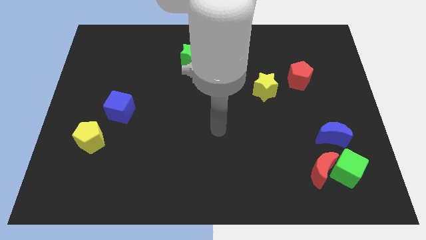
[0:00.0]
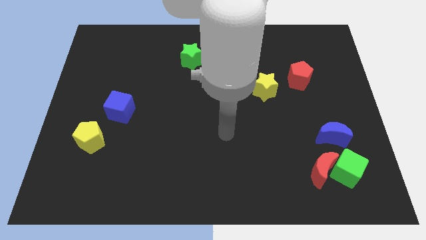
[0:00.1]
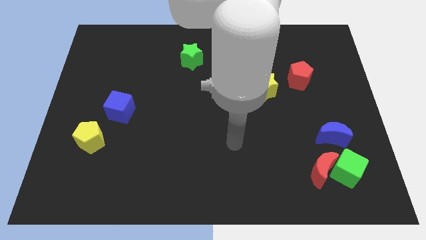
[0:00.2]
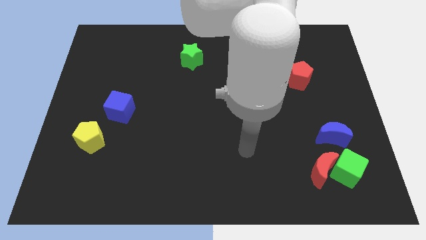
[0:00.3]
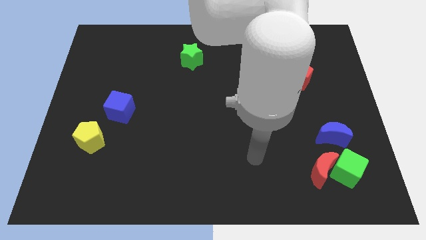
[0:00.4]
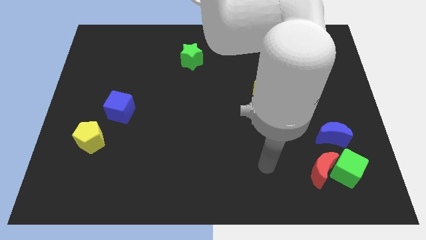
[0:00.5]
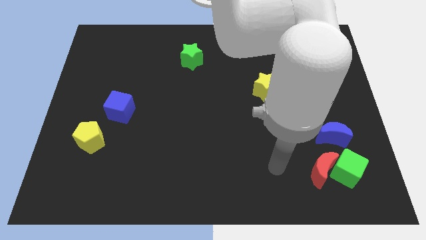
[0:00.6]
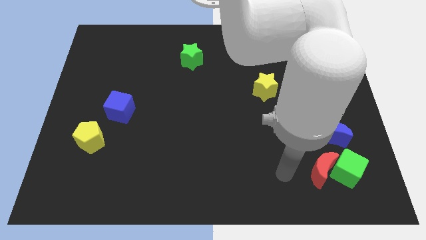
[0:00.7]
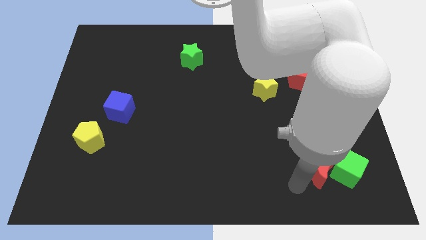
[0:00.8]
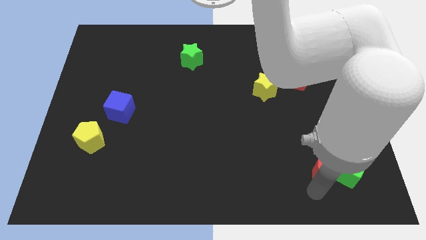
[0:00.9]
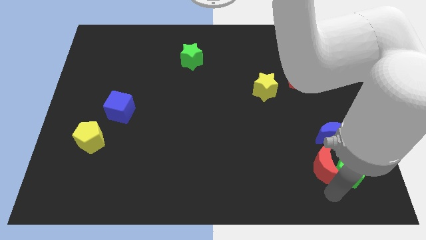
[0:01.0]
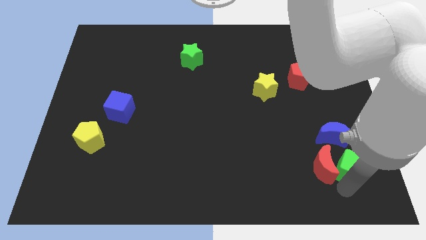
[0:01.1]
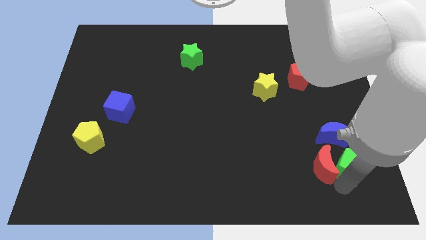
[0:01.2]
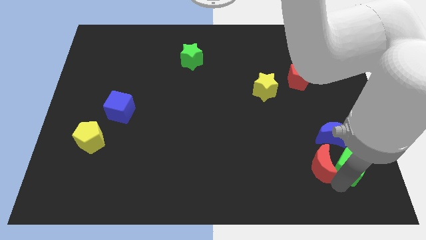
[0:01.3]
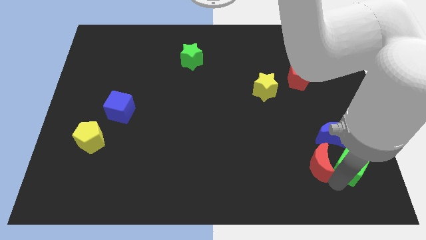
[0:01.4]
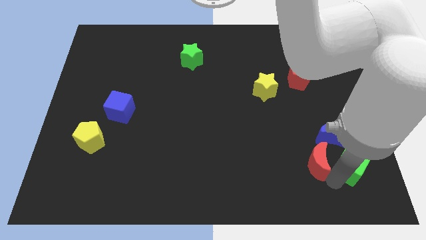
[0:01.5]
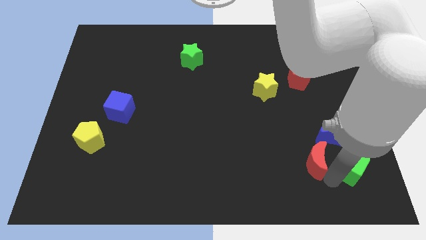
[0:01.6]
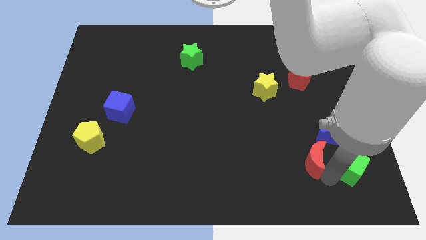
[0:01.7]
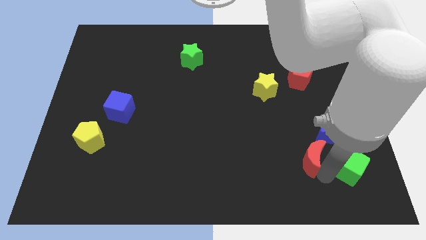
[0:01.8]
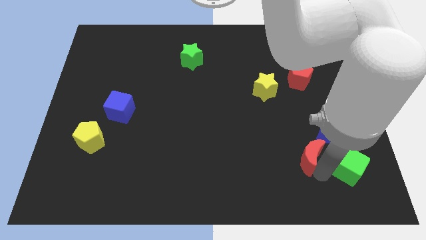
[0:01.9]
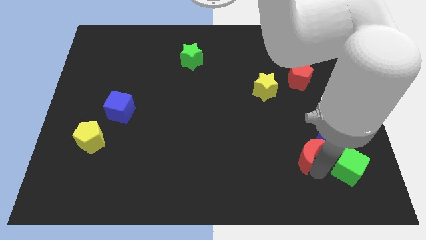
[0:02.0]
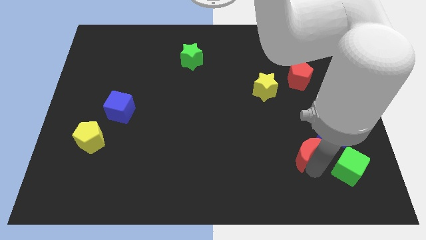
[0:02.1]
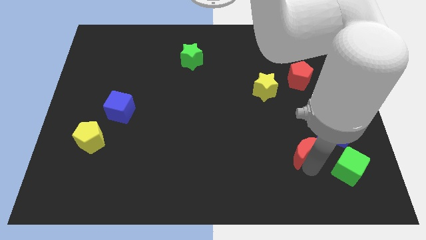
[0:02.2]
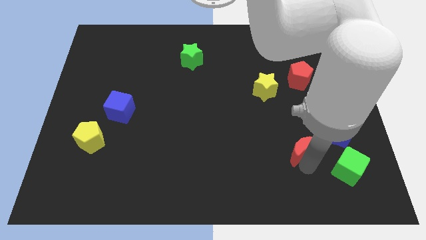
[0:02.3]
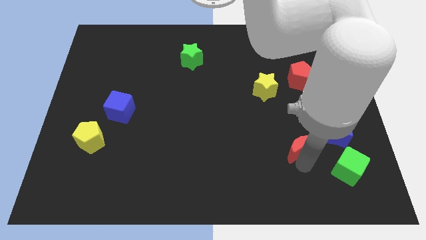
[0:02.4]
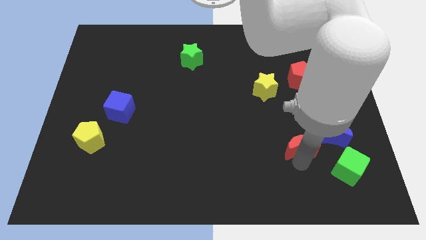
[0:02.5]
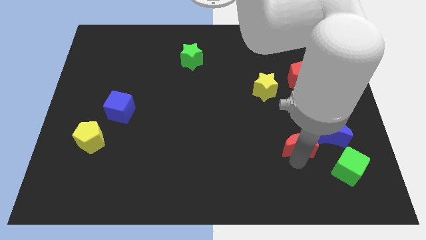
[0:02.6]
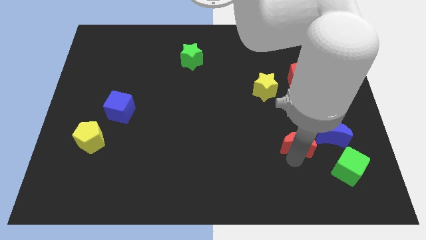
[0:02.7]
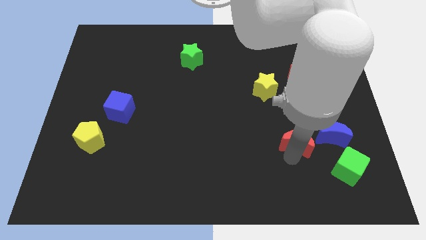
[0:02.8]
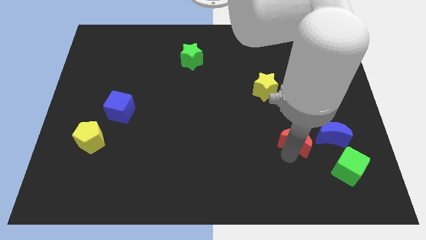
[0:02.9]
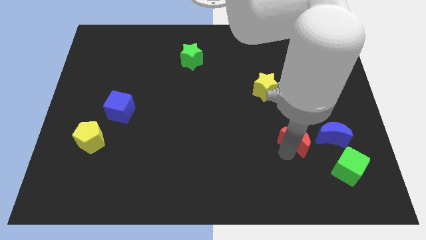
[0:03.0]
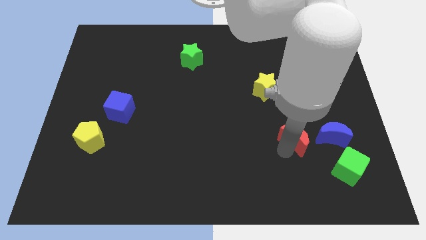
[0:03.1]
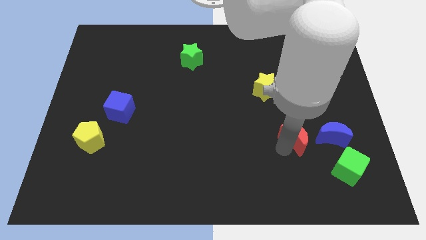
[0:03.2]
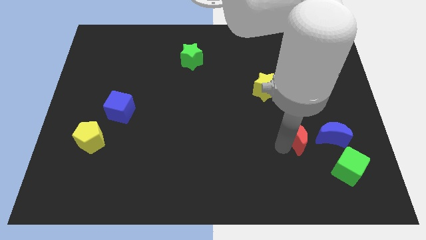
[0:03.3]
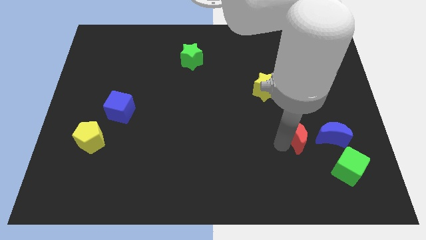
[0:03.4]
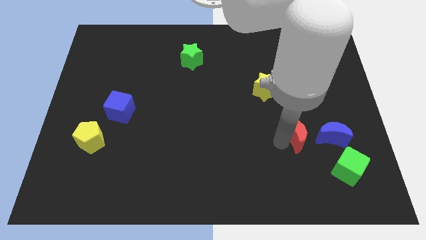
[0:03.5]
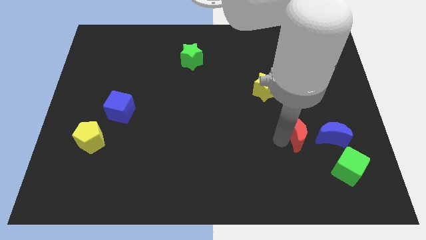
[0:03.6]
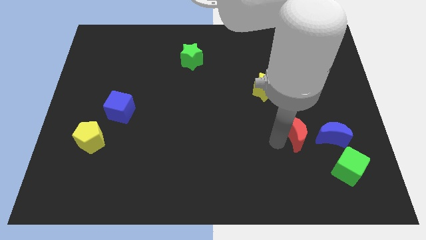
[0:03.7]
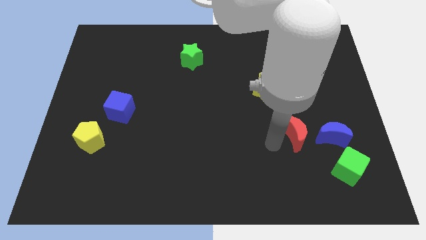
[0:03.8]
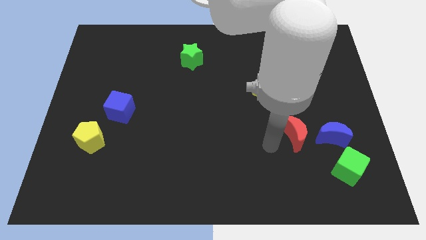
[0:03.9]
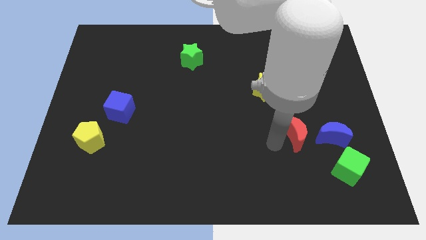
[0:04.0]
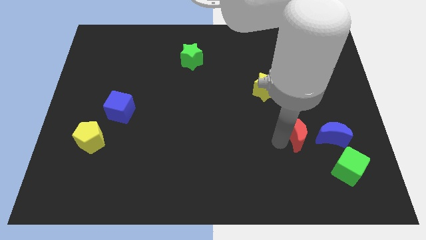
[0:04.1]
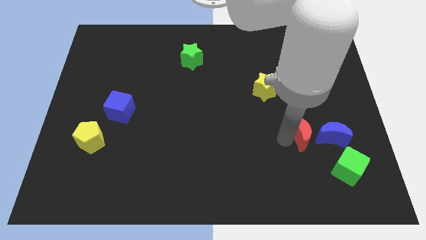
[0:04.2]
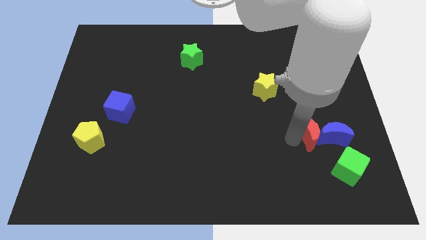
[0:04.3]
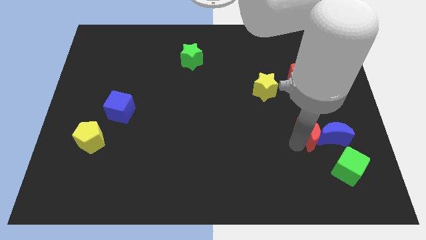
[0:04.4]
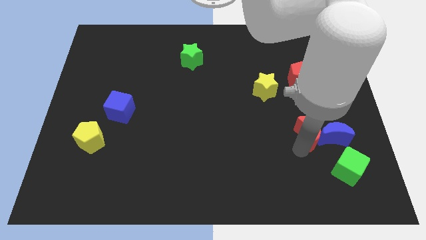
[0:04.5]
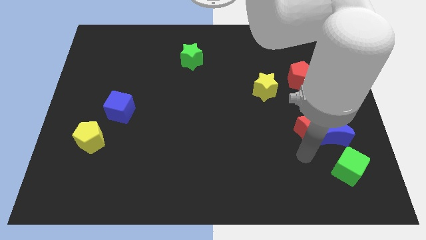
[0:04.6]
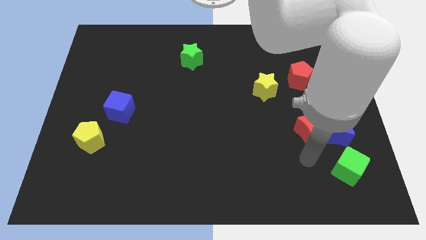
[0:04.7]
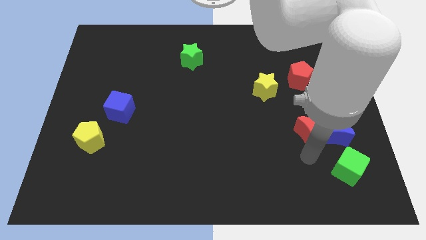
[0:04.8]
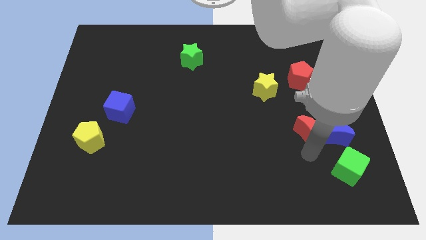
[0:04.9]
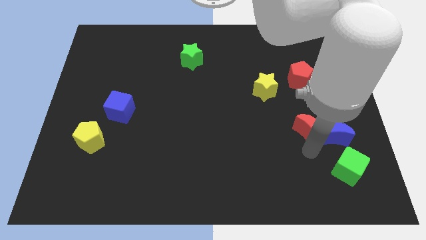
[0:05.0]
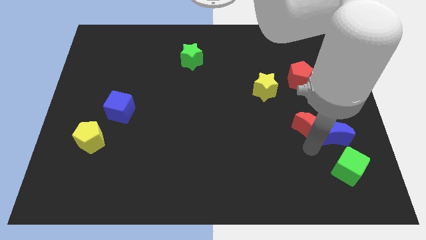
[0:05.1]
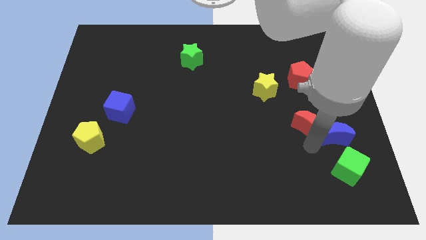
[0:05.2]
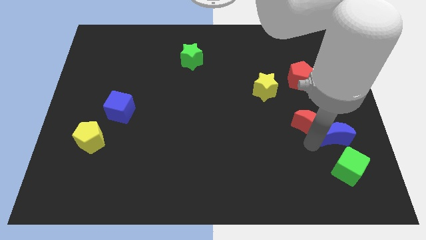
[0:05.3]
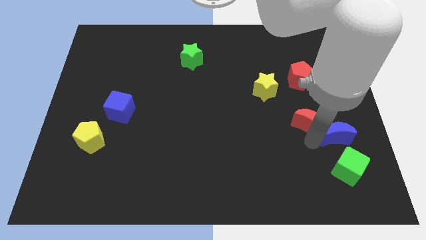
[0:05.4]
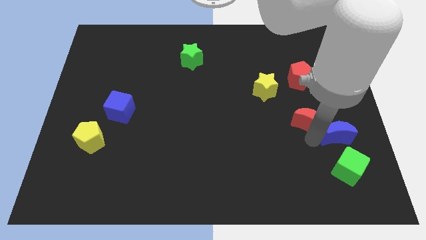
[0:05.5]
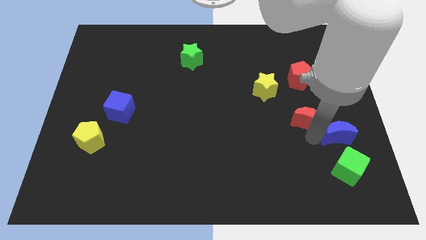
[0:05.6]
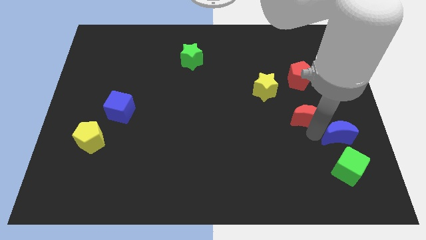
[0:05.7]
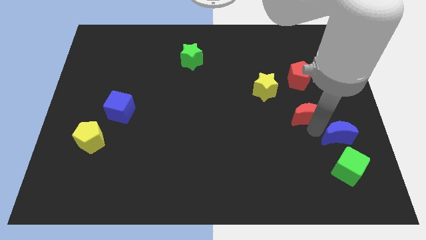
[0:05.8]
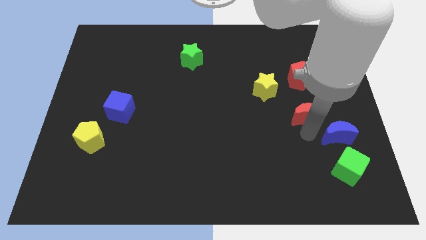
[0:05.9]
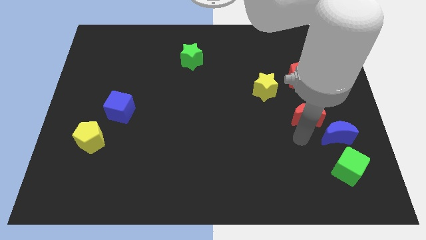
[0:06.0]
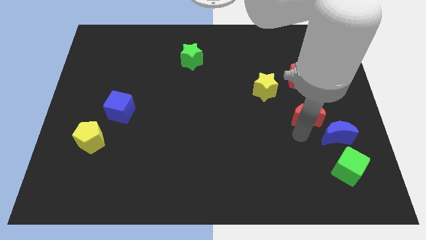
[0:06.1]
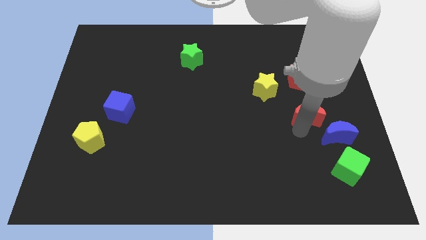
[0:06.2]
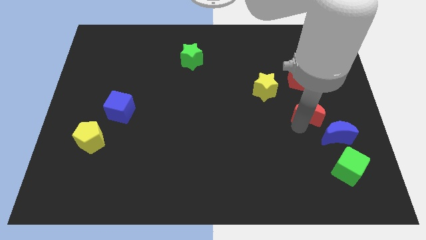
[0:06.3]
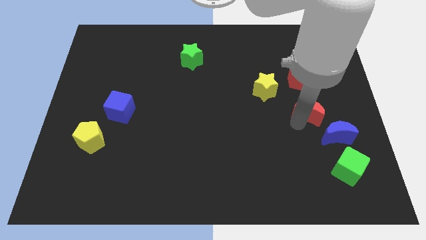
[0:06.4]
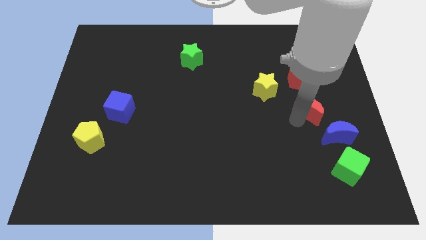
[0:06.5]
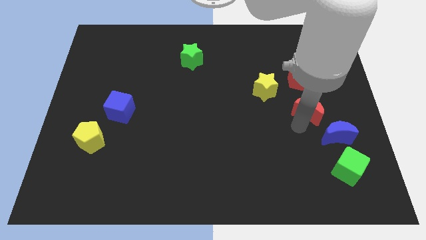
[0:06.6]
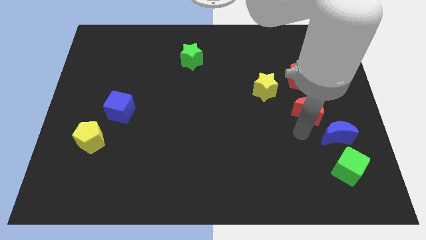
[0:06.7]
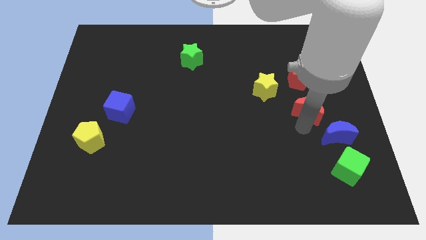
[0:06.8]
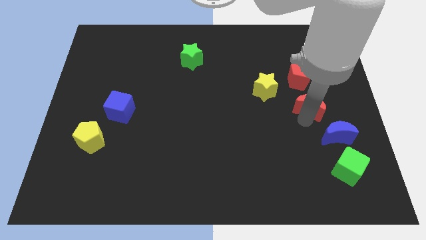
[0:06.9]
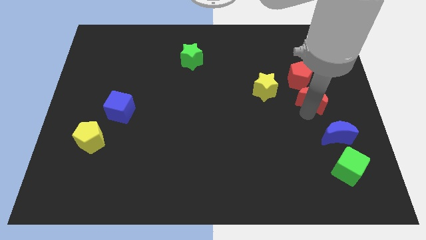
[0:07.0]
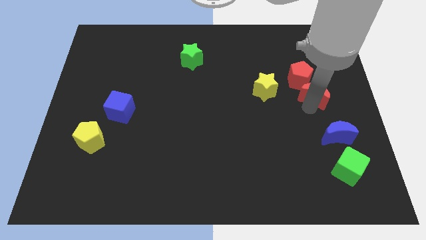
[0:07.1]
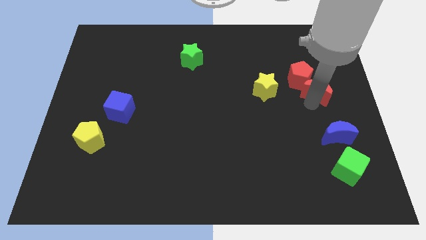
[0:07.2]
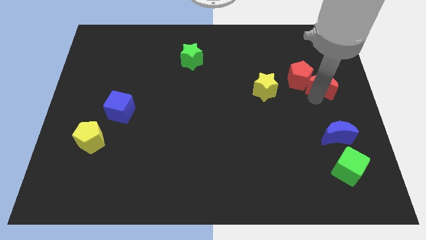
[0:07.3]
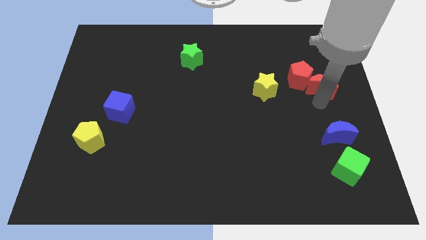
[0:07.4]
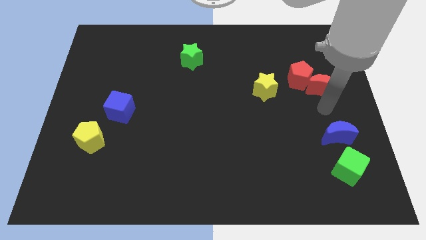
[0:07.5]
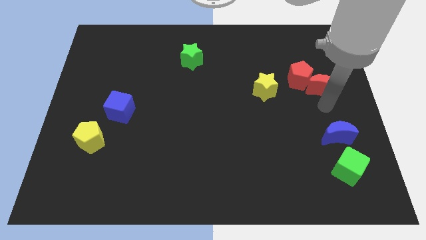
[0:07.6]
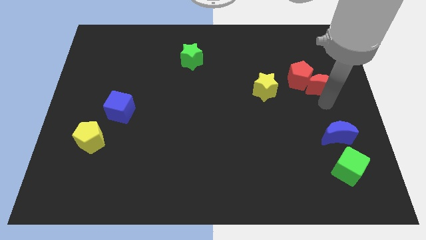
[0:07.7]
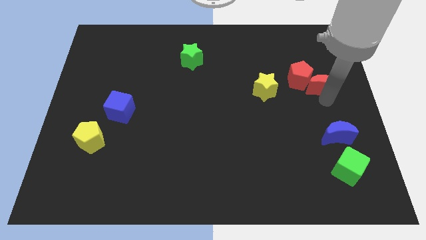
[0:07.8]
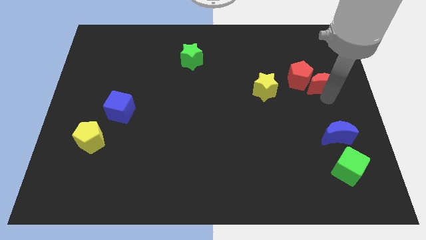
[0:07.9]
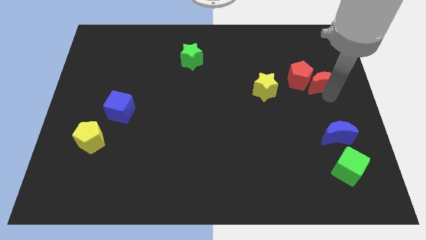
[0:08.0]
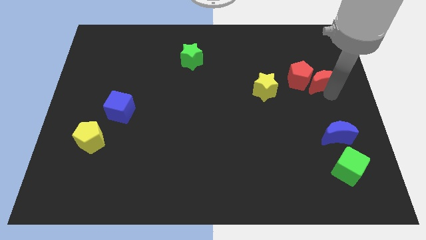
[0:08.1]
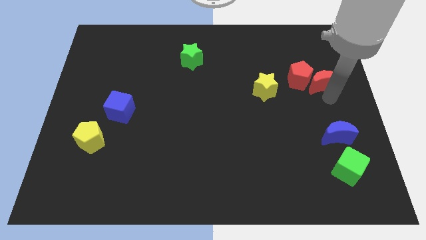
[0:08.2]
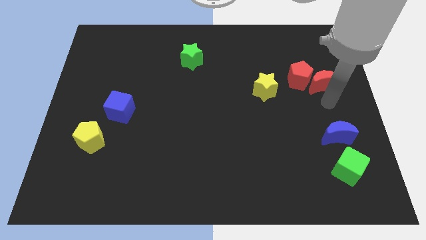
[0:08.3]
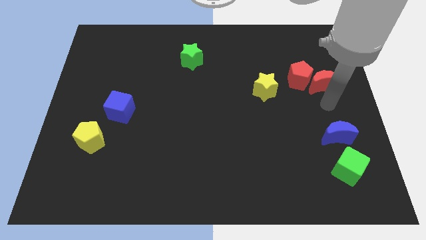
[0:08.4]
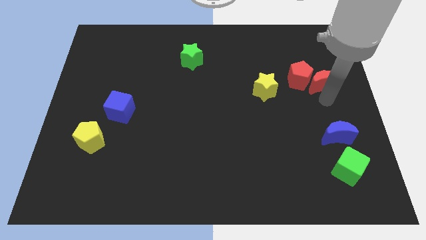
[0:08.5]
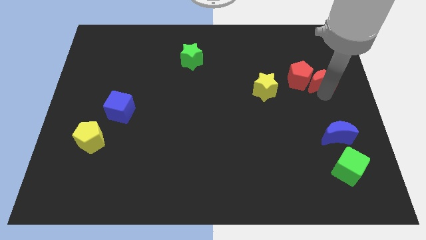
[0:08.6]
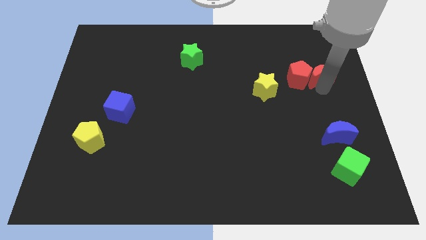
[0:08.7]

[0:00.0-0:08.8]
push the red moon to the top right of the red pentagon
